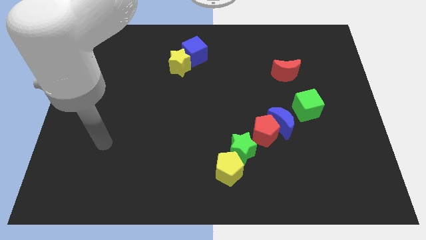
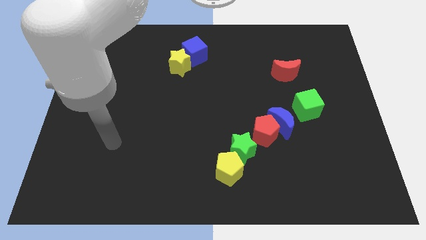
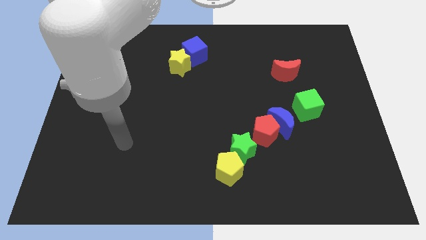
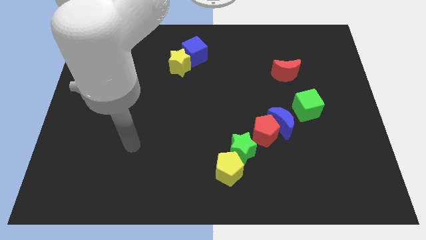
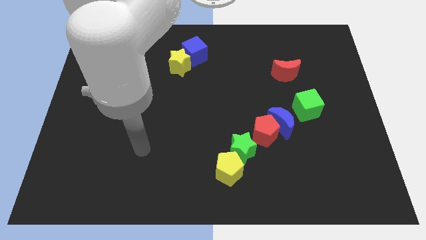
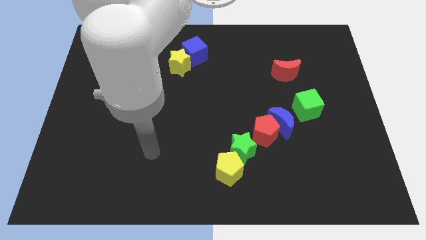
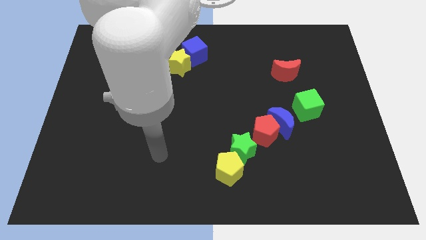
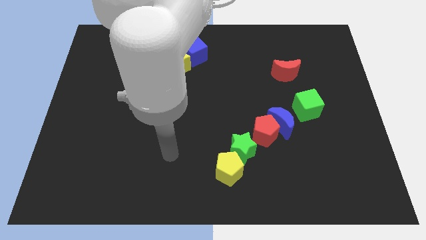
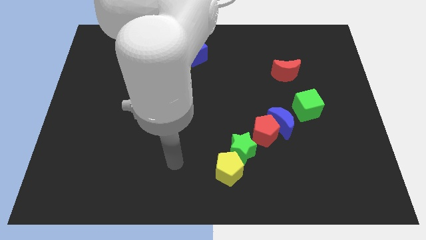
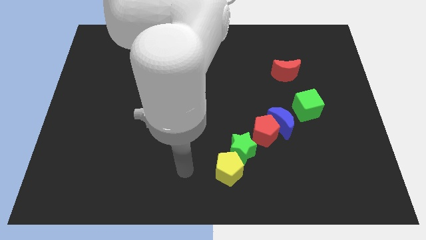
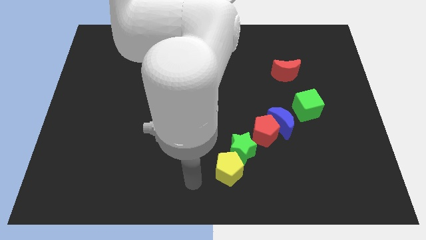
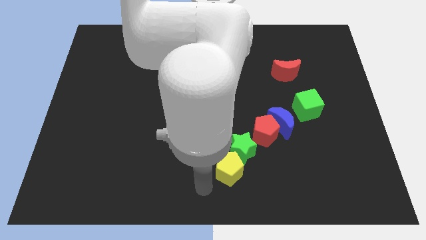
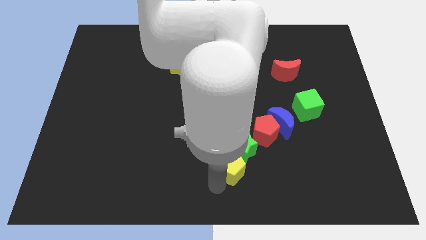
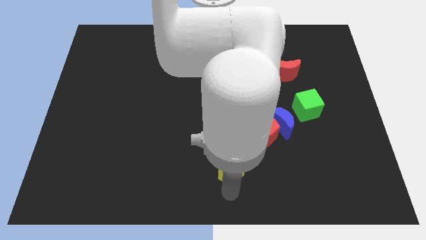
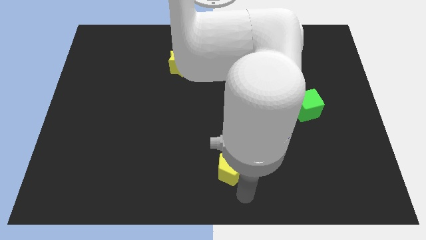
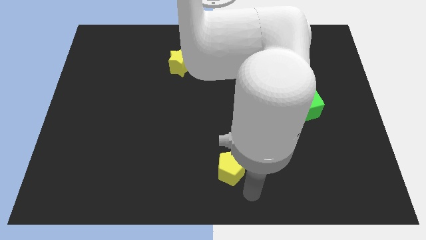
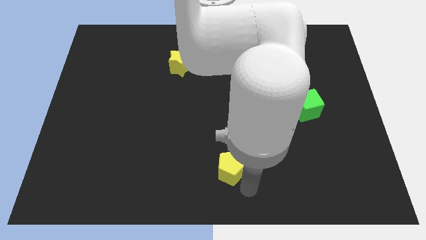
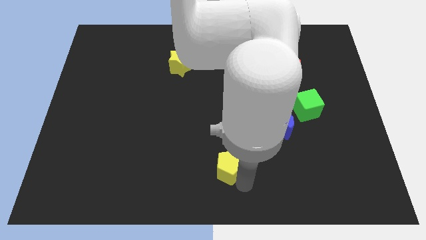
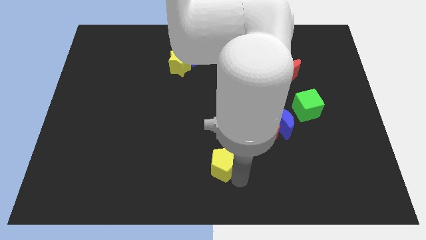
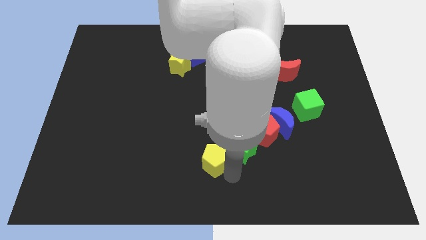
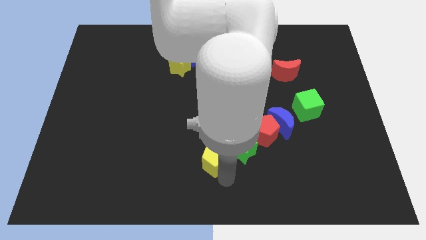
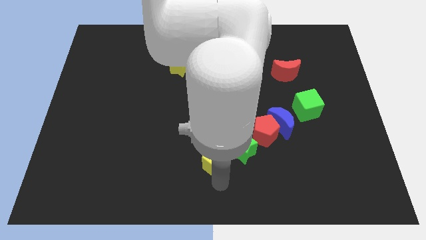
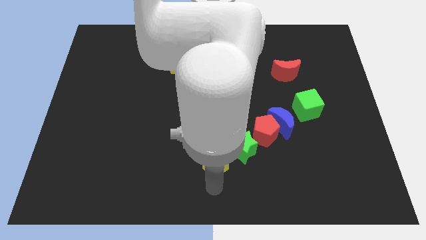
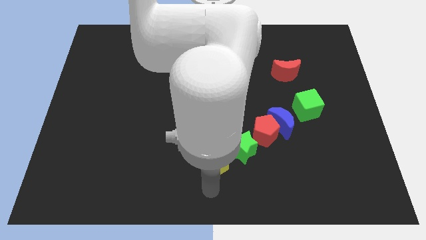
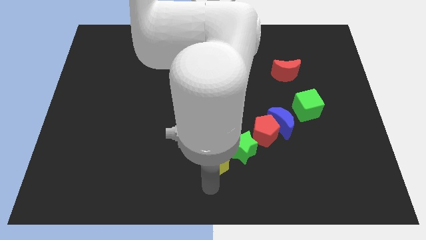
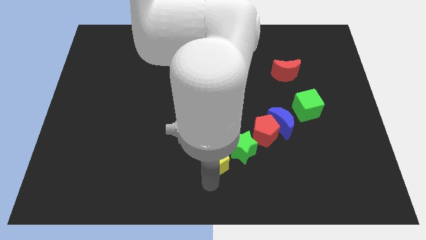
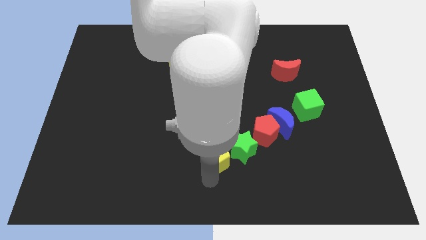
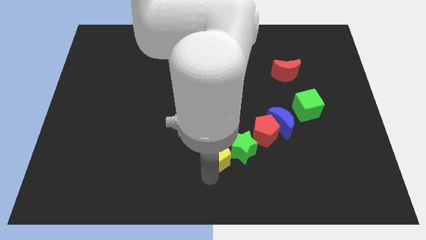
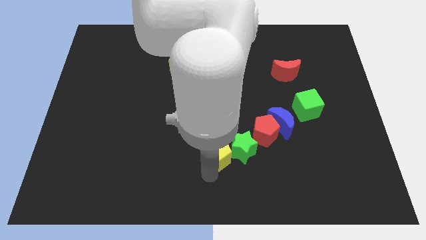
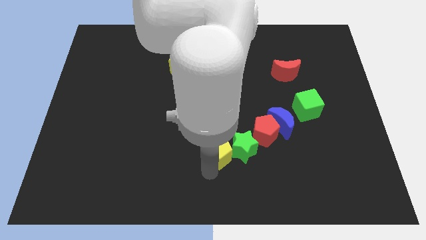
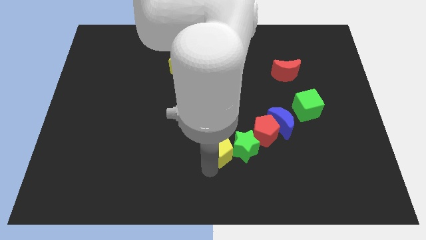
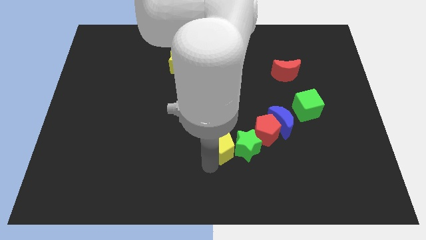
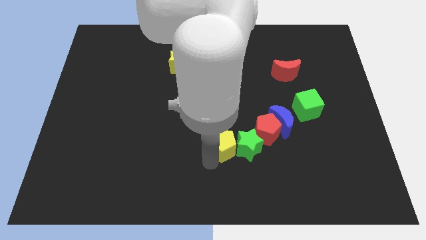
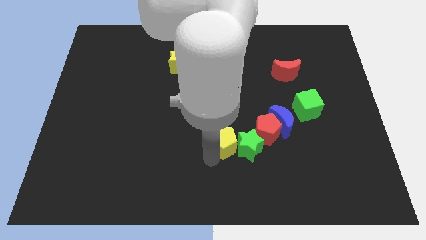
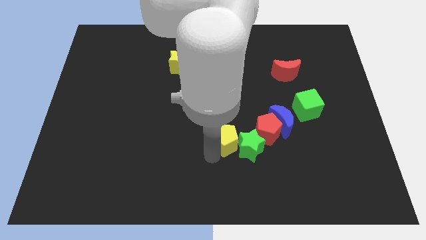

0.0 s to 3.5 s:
slightly slide the yellow pentagon upwards

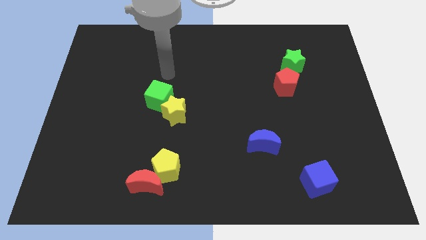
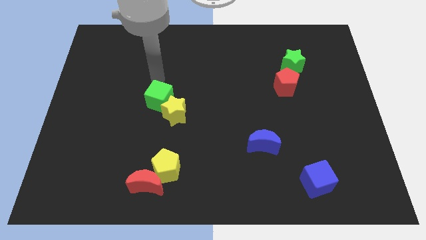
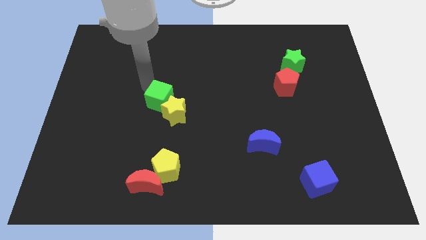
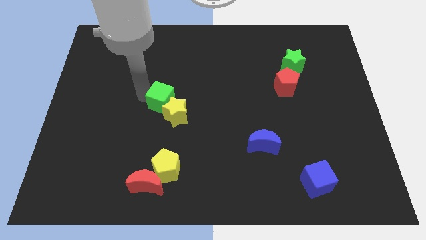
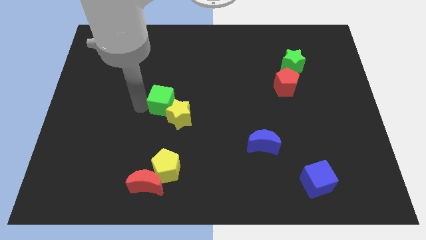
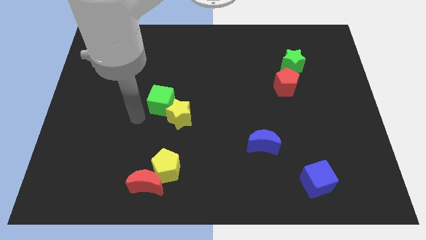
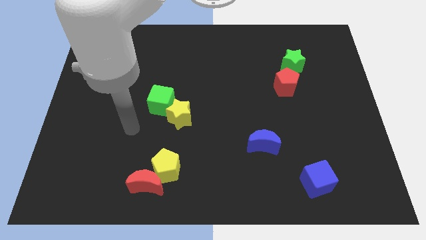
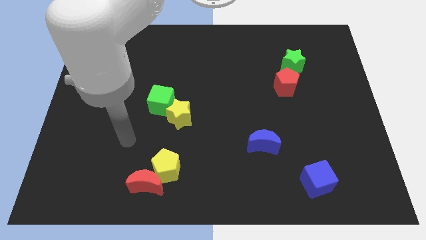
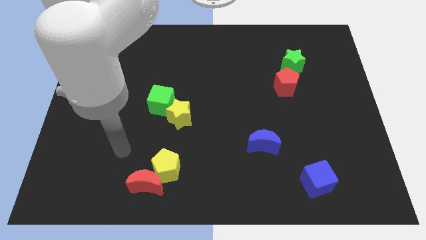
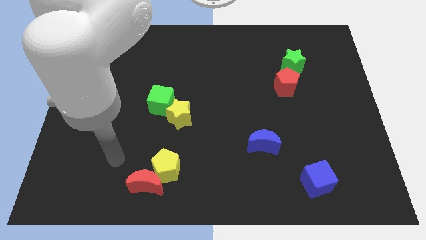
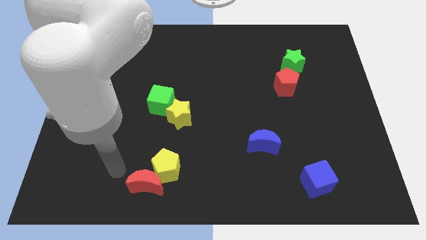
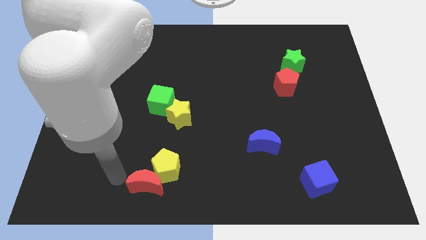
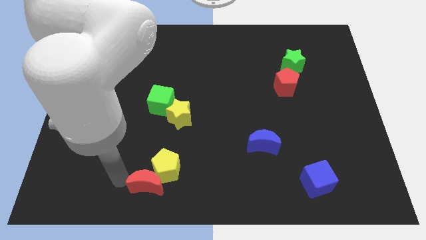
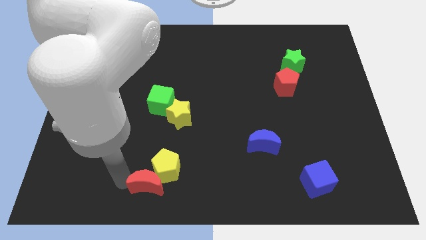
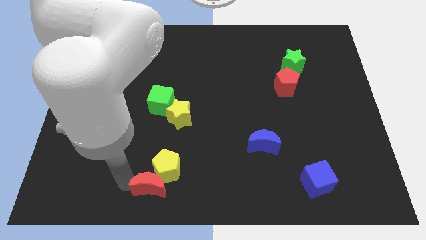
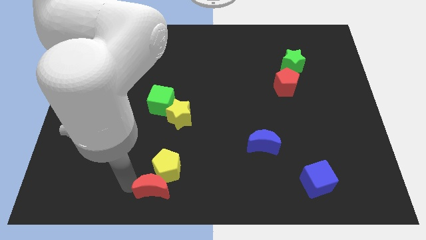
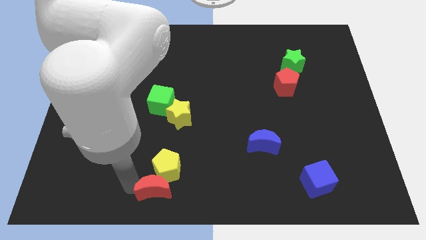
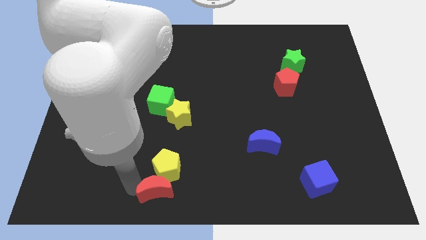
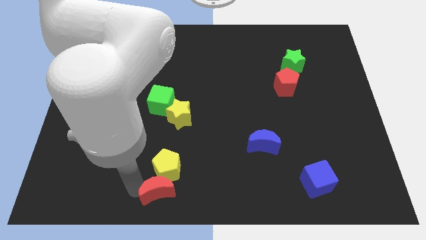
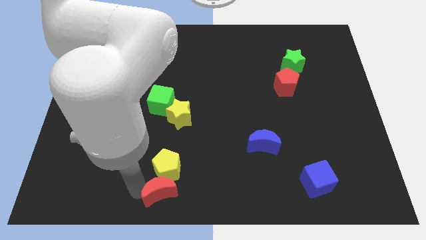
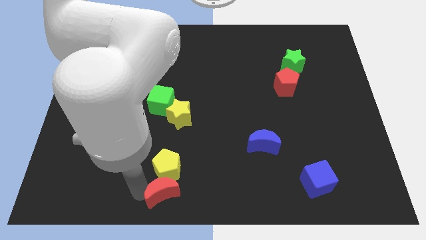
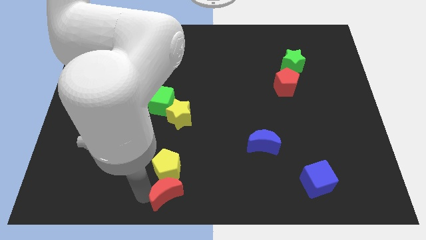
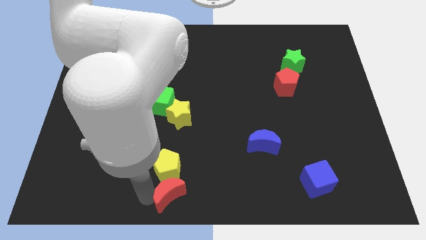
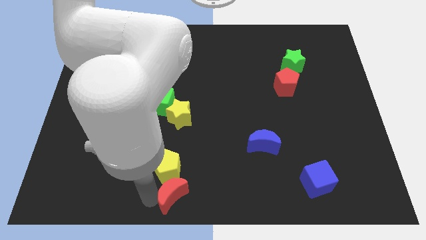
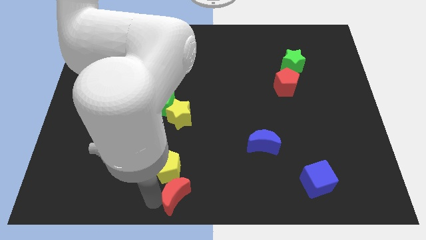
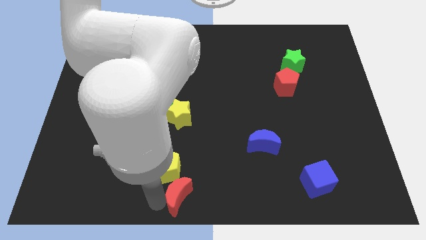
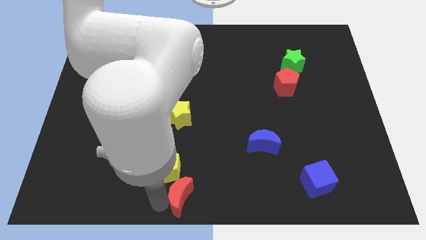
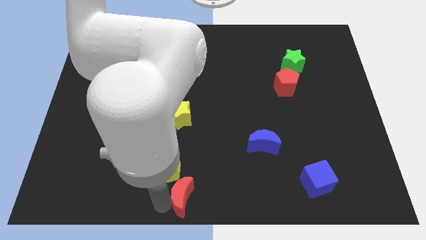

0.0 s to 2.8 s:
slightly push the red moon to the right

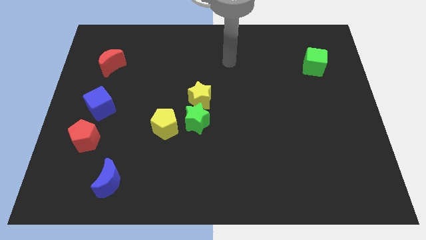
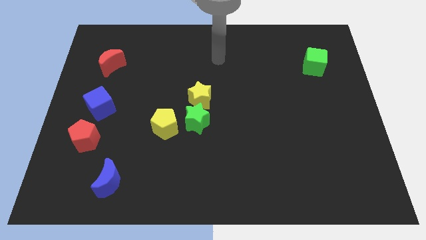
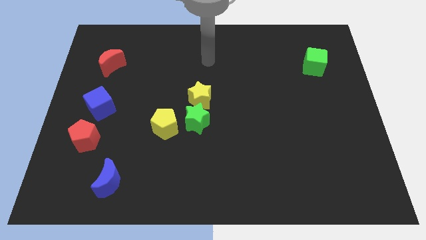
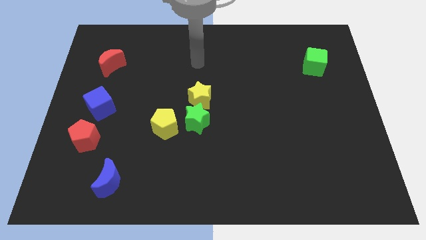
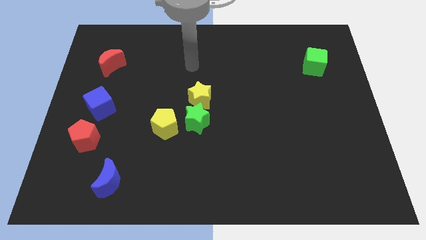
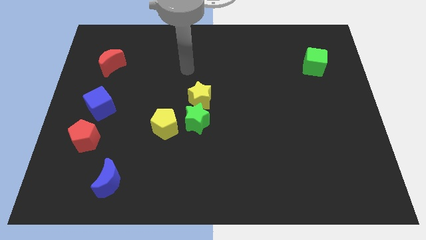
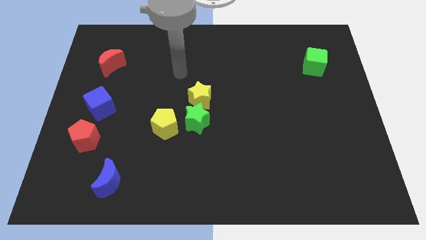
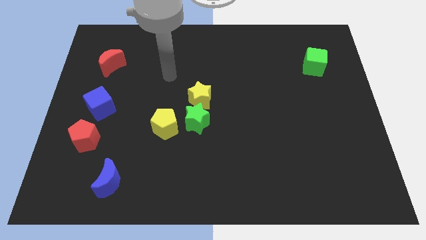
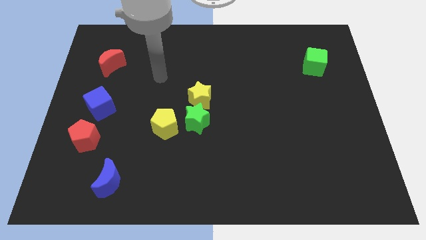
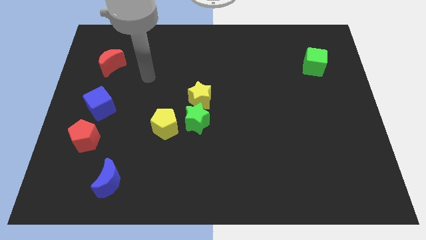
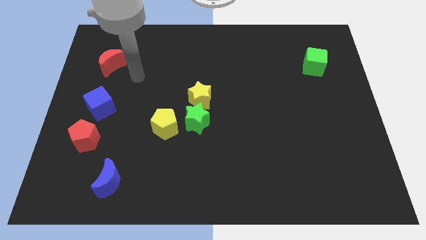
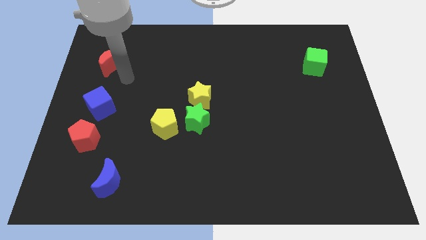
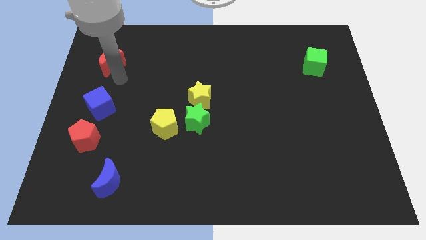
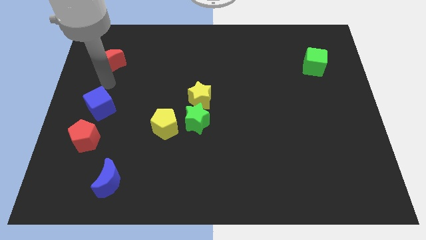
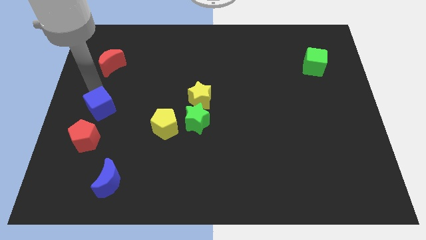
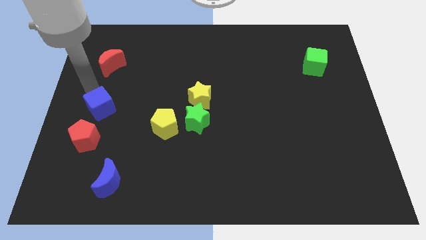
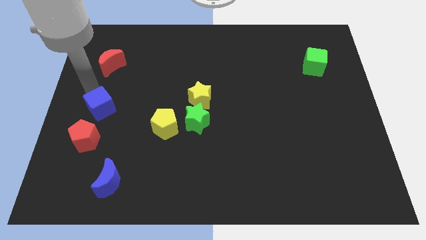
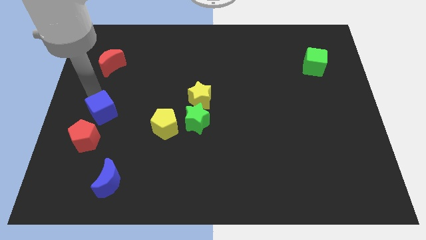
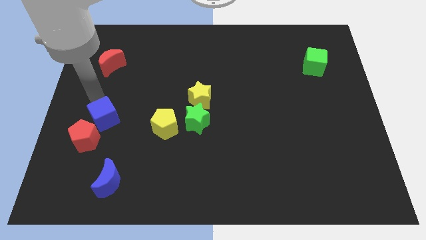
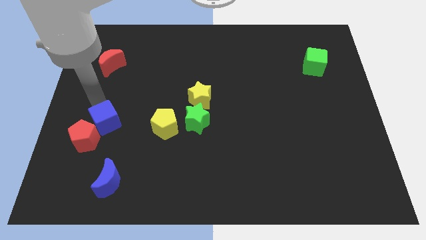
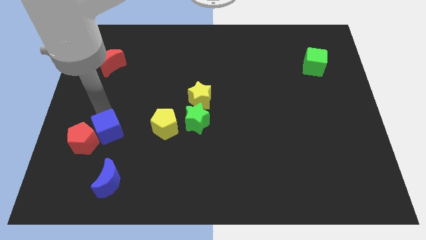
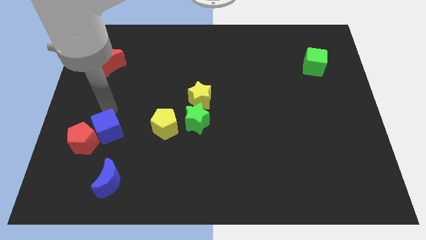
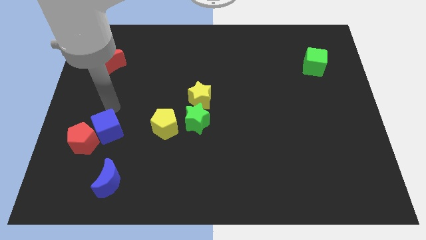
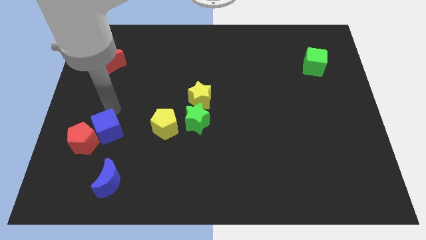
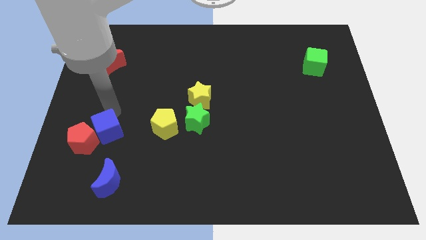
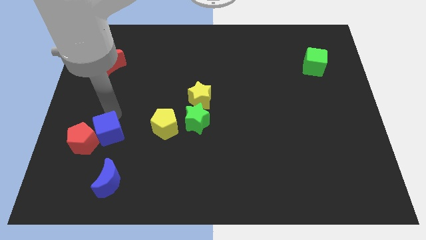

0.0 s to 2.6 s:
slide the blue cube somewhat down
